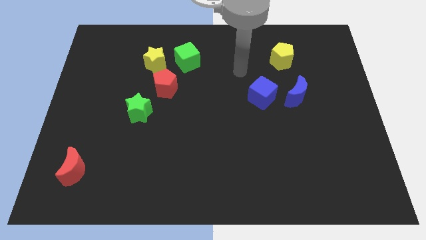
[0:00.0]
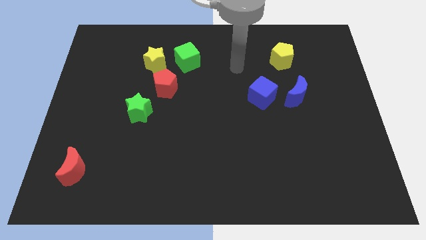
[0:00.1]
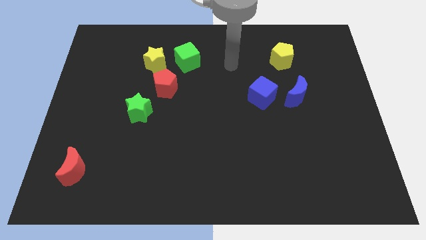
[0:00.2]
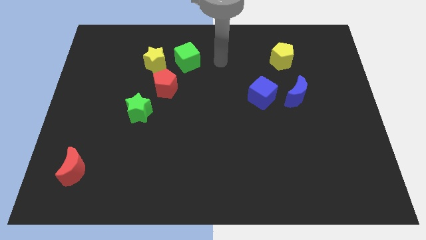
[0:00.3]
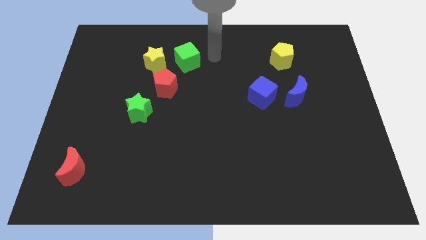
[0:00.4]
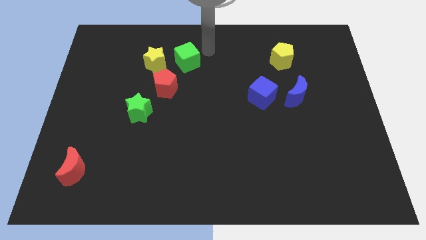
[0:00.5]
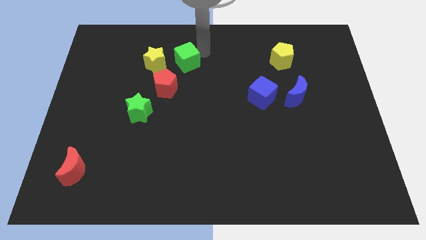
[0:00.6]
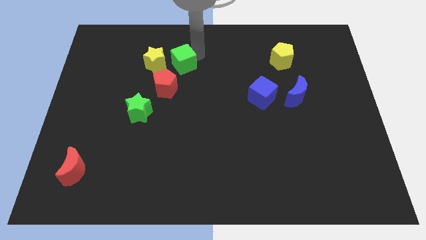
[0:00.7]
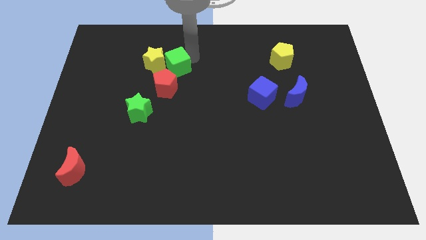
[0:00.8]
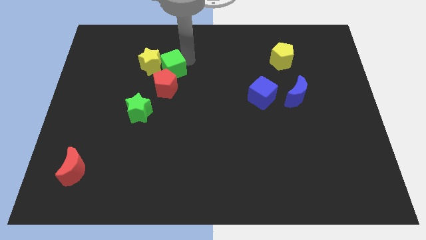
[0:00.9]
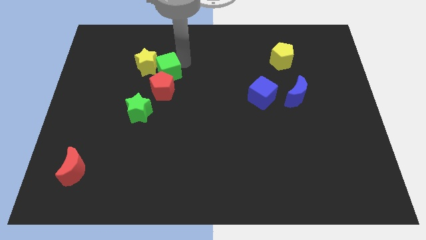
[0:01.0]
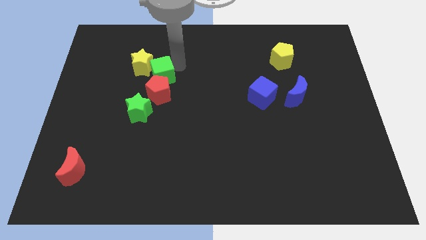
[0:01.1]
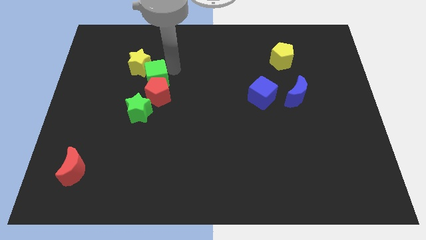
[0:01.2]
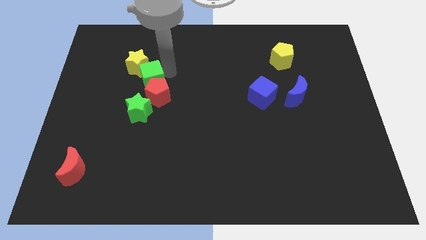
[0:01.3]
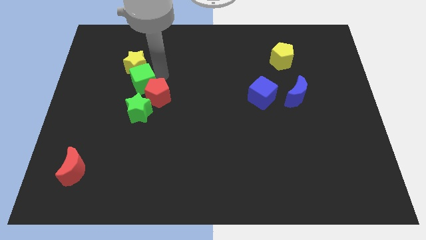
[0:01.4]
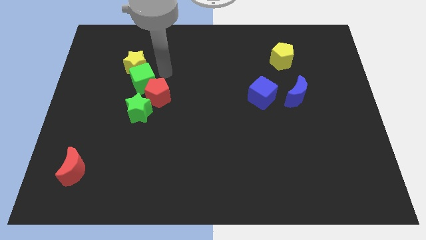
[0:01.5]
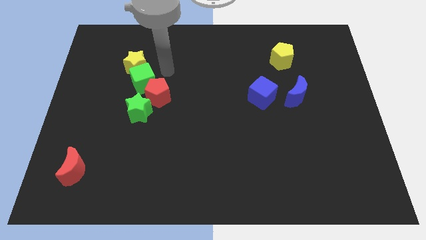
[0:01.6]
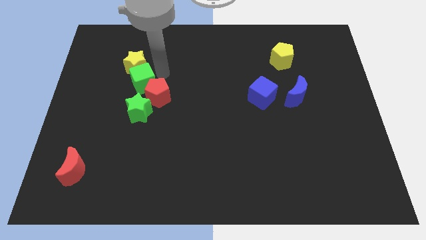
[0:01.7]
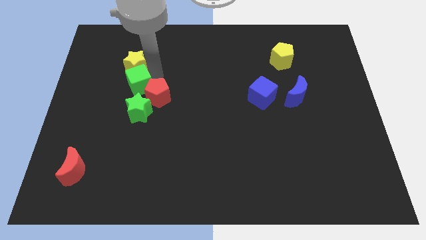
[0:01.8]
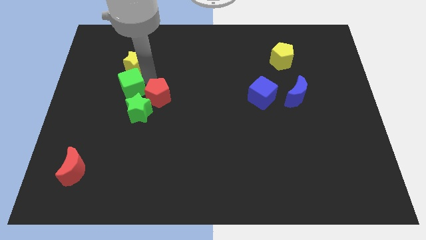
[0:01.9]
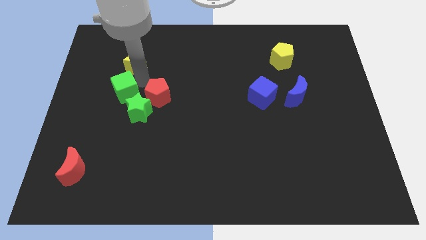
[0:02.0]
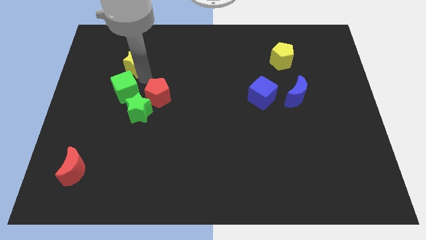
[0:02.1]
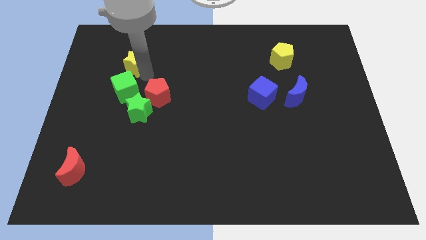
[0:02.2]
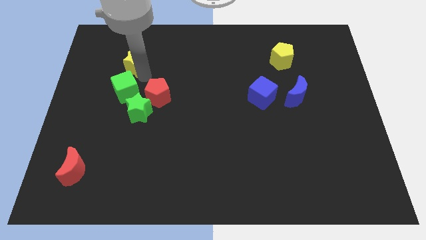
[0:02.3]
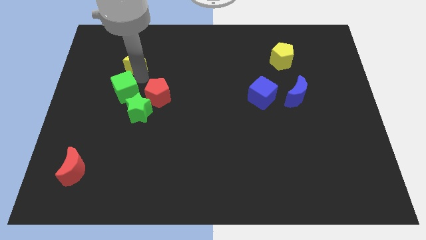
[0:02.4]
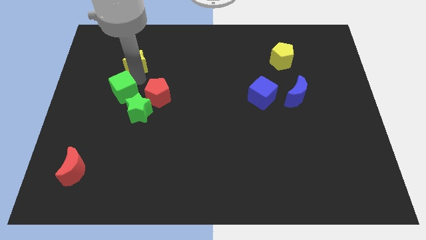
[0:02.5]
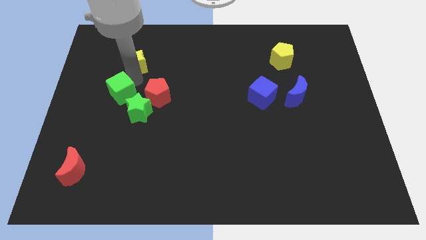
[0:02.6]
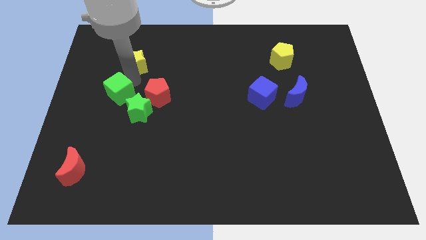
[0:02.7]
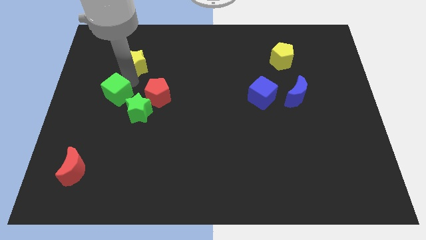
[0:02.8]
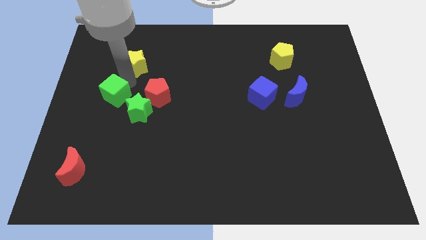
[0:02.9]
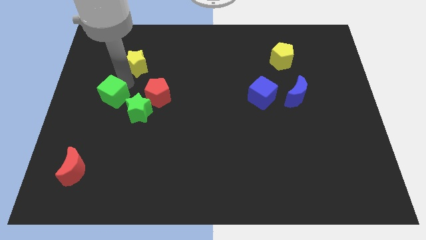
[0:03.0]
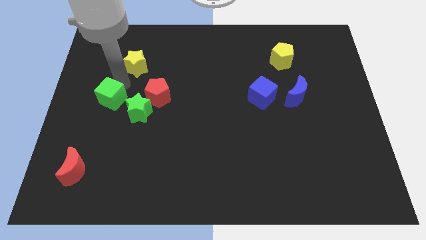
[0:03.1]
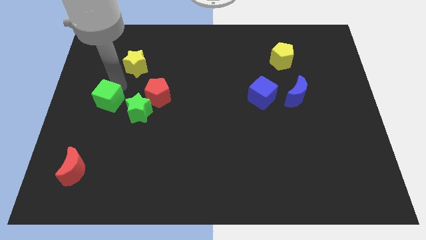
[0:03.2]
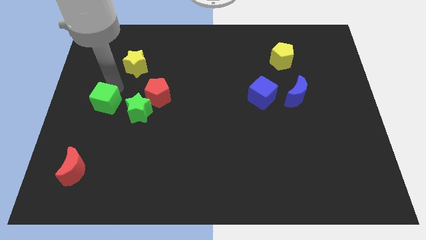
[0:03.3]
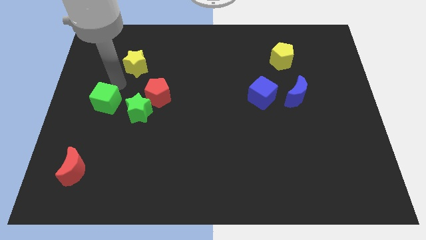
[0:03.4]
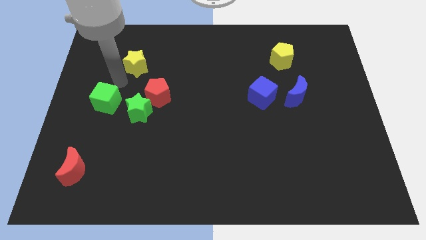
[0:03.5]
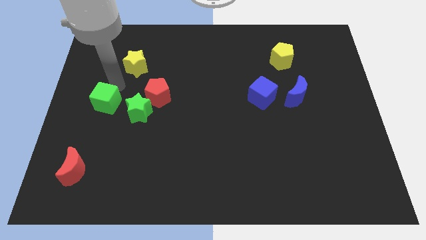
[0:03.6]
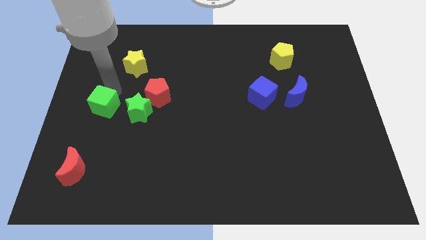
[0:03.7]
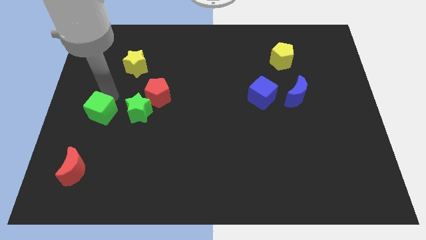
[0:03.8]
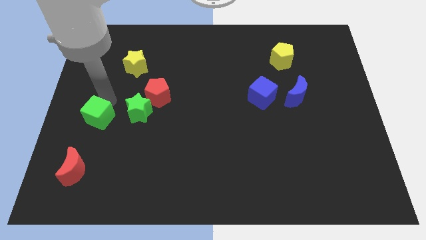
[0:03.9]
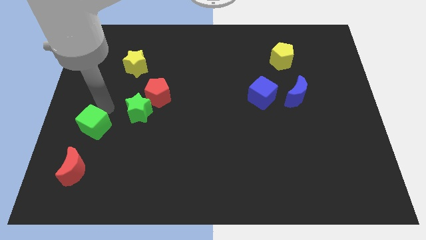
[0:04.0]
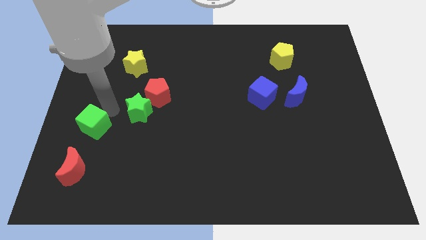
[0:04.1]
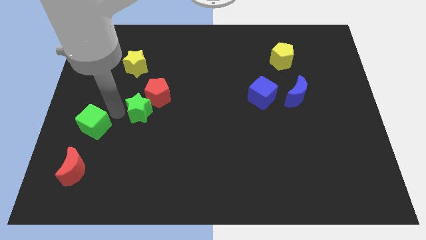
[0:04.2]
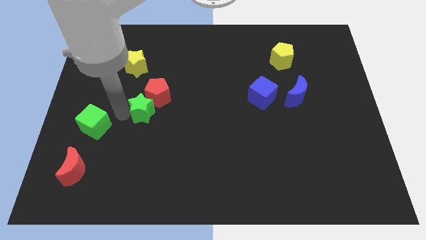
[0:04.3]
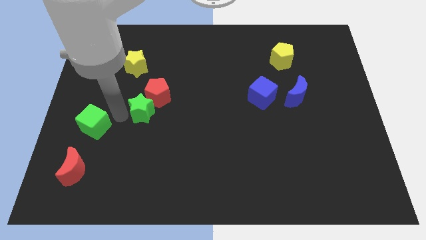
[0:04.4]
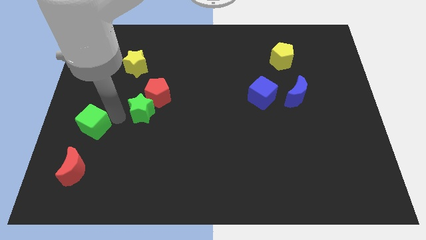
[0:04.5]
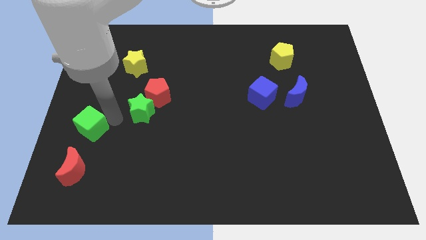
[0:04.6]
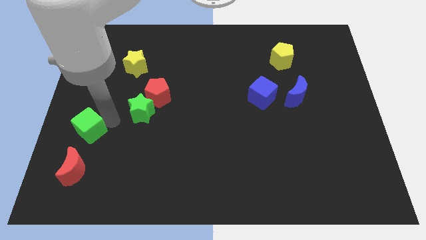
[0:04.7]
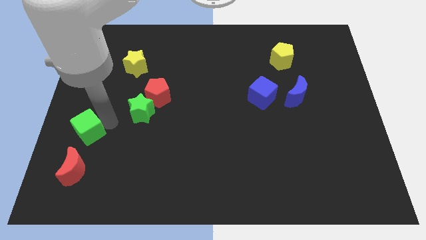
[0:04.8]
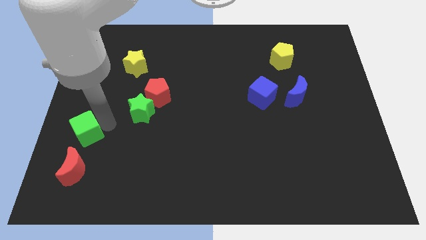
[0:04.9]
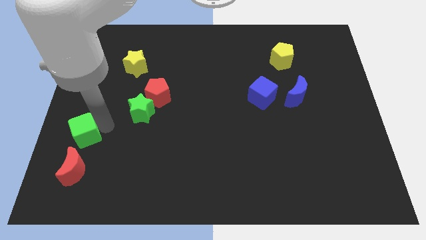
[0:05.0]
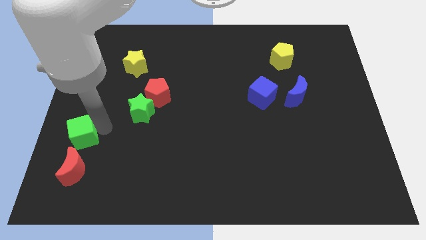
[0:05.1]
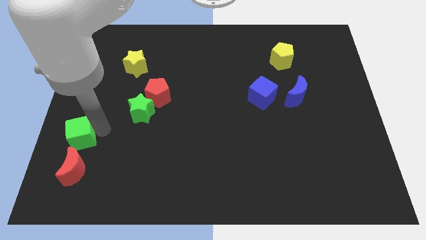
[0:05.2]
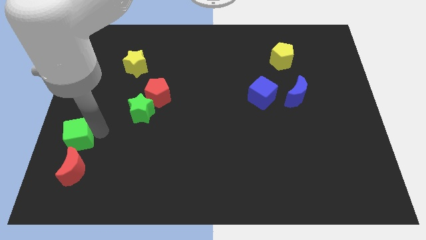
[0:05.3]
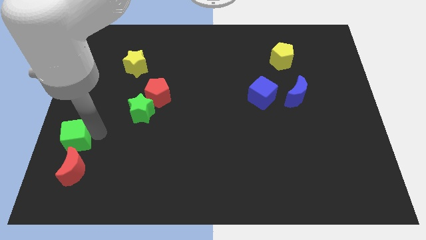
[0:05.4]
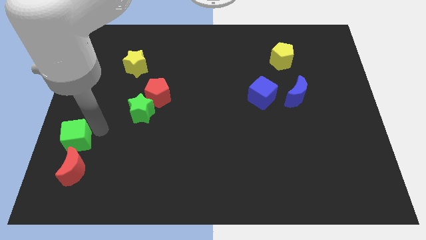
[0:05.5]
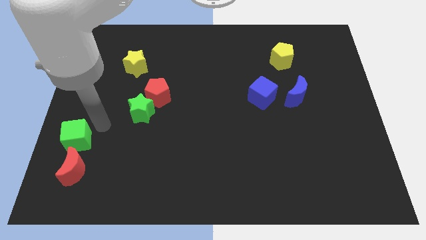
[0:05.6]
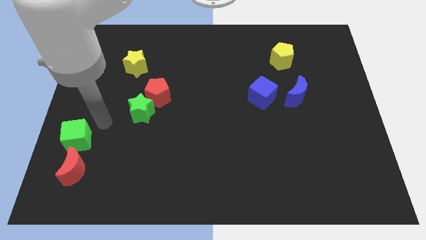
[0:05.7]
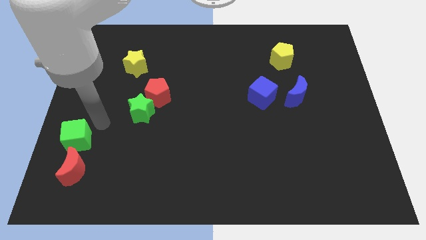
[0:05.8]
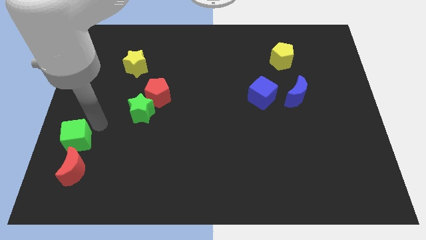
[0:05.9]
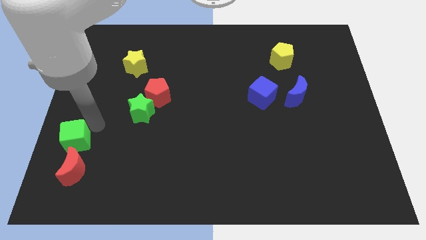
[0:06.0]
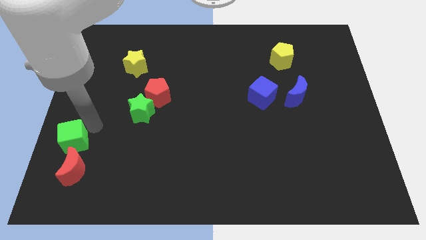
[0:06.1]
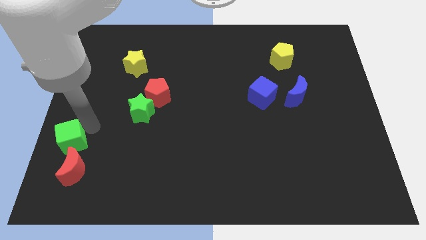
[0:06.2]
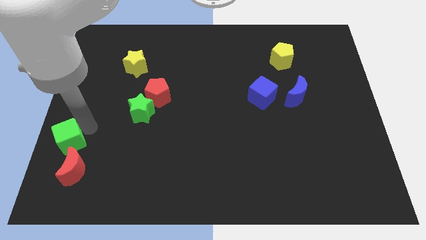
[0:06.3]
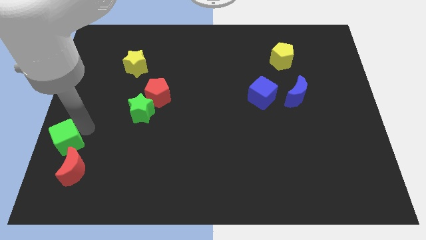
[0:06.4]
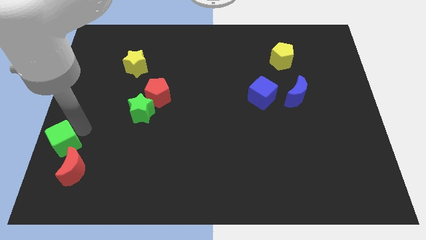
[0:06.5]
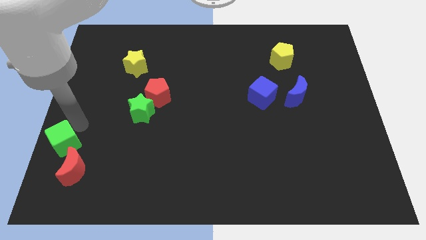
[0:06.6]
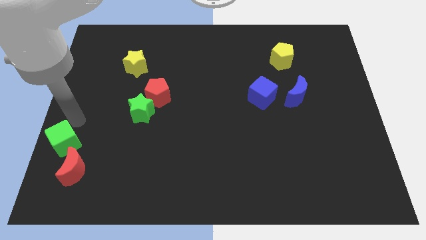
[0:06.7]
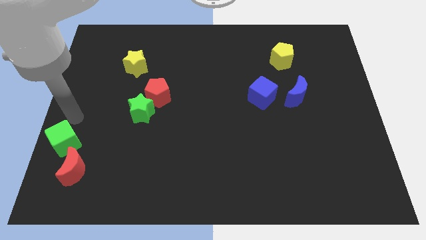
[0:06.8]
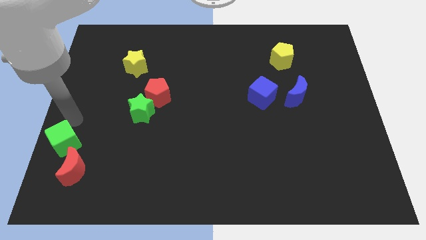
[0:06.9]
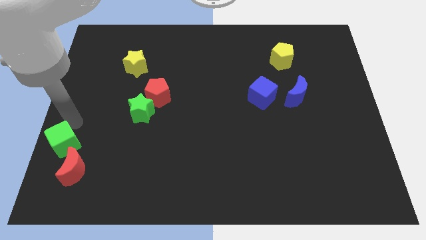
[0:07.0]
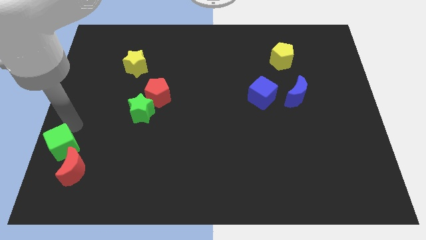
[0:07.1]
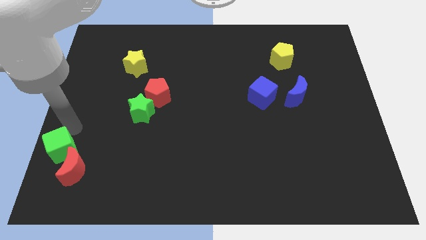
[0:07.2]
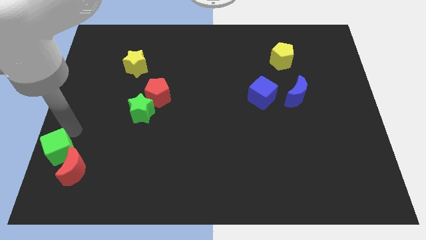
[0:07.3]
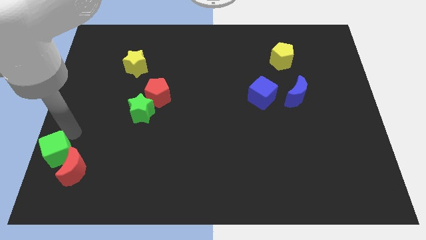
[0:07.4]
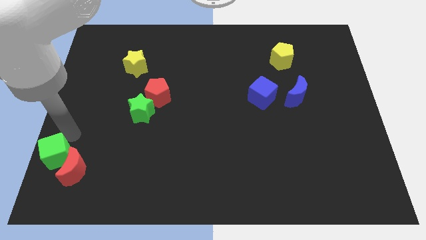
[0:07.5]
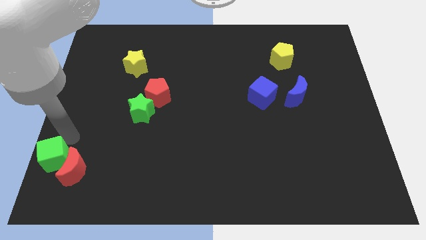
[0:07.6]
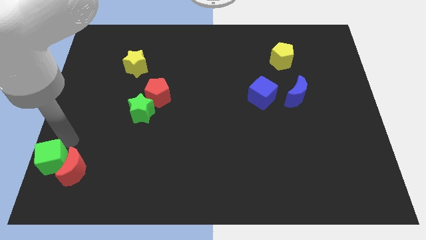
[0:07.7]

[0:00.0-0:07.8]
push the green cube to the bottom left corner
